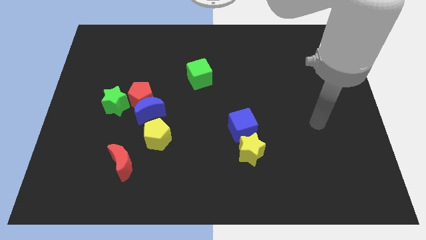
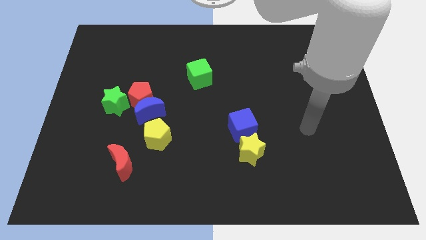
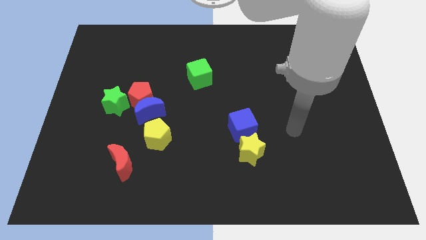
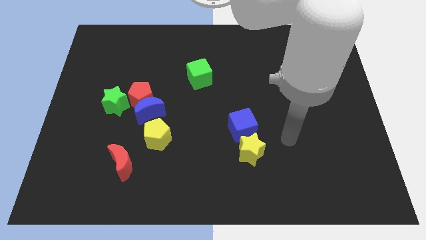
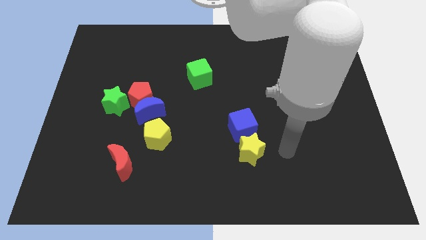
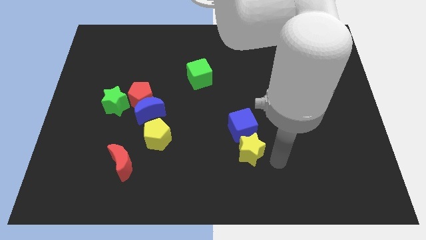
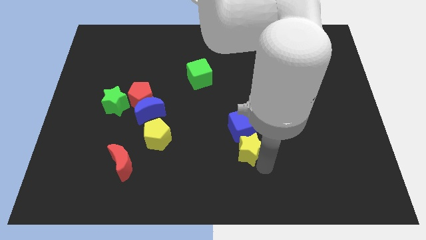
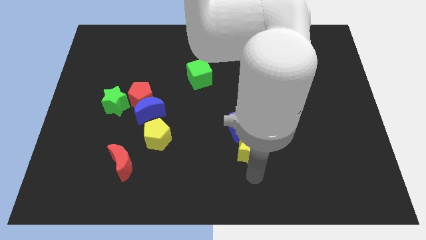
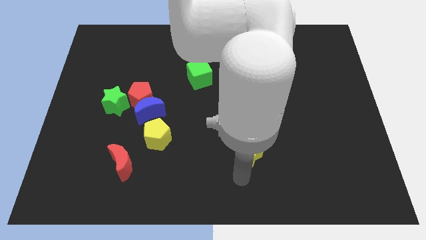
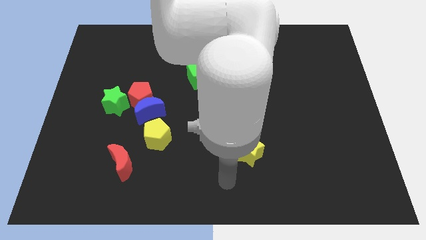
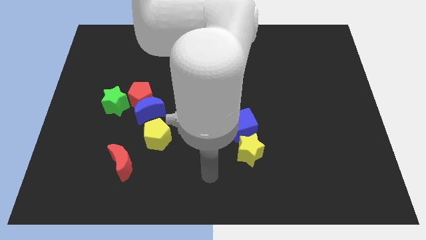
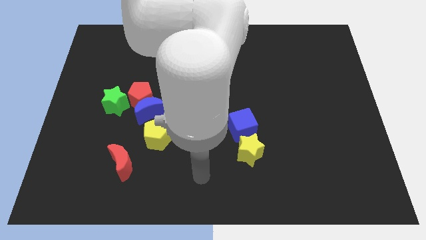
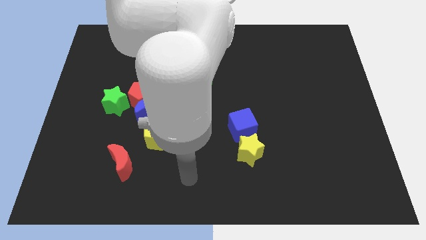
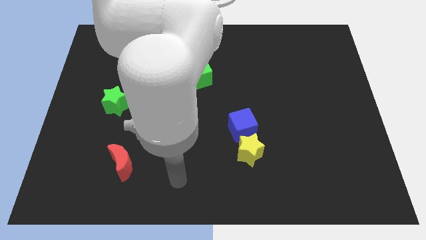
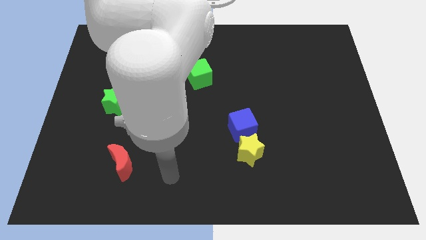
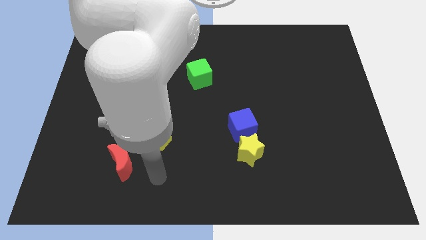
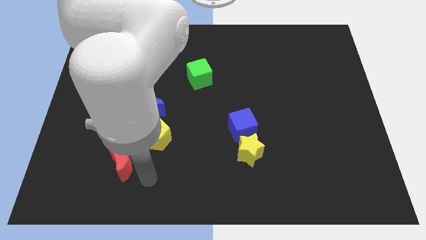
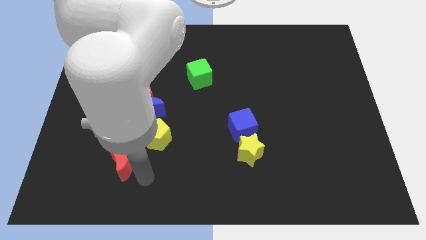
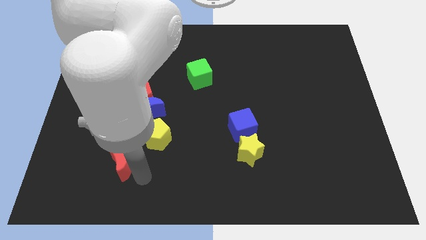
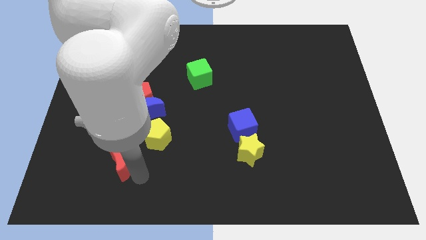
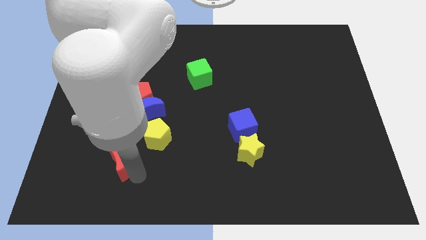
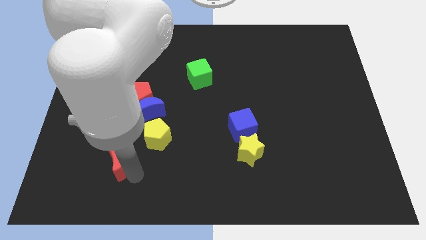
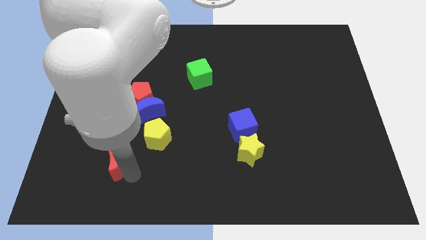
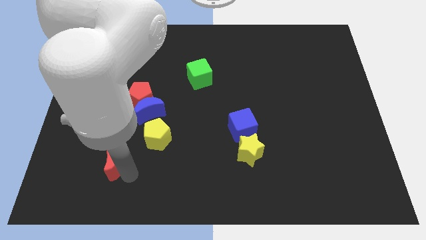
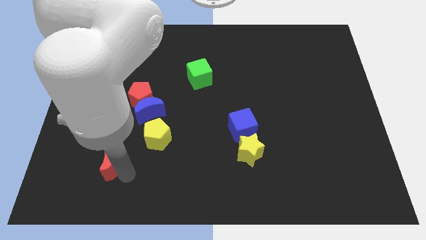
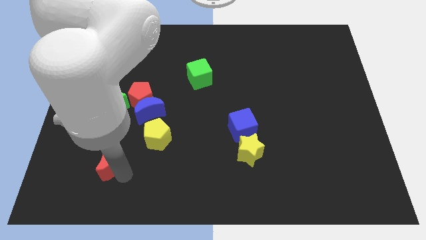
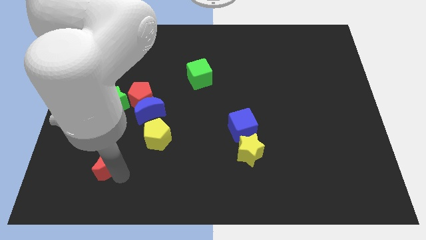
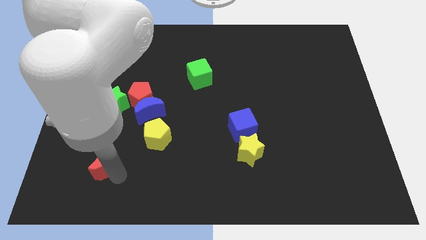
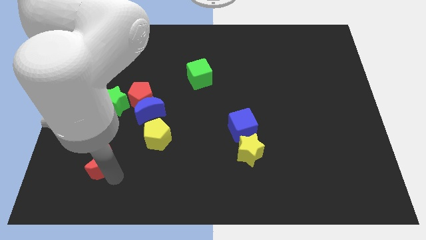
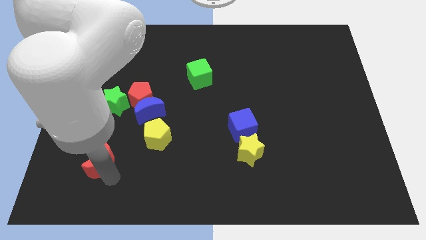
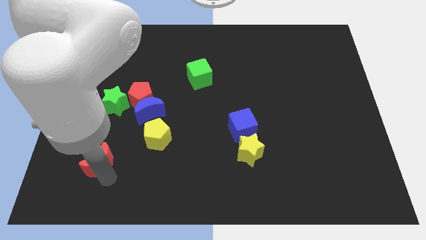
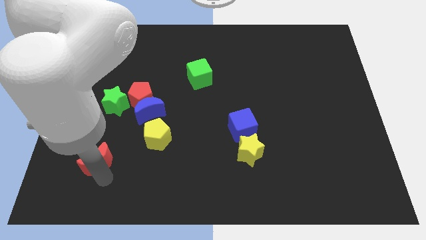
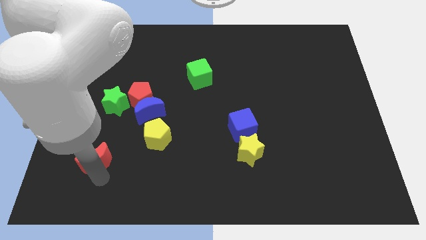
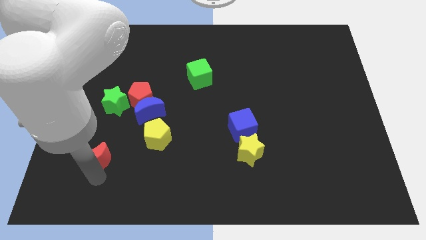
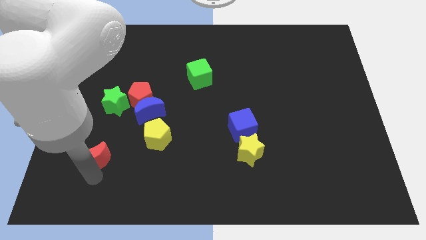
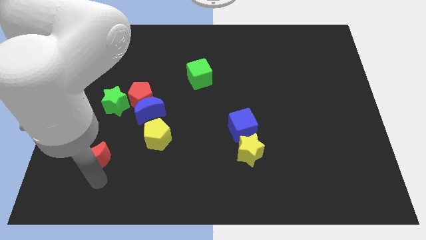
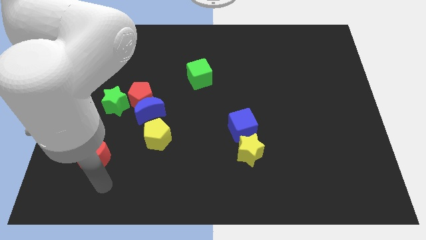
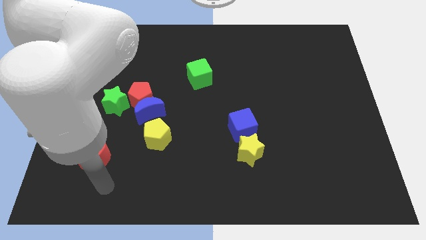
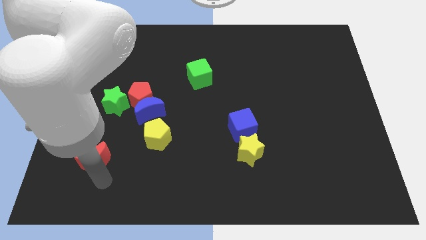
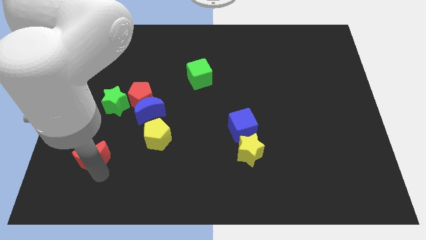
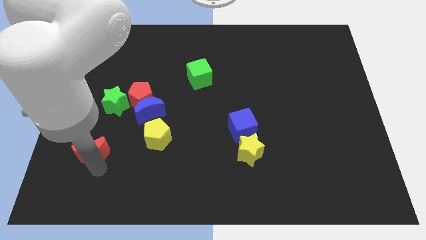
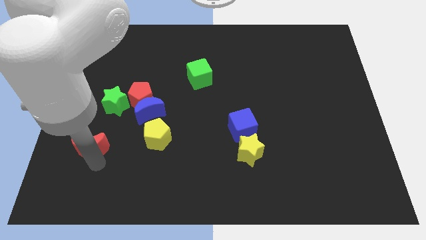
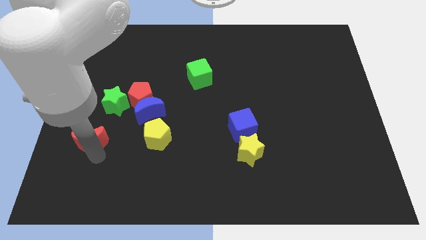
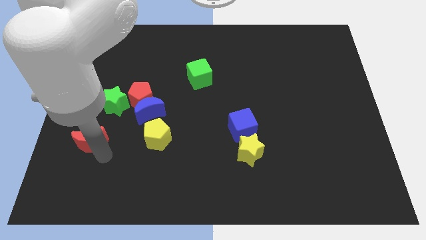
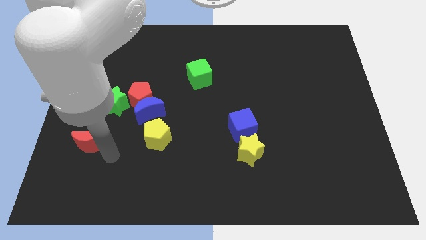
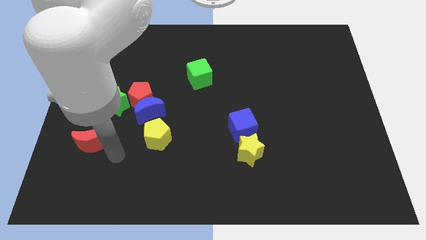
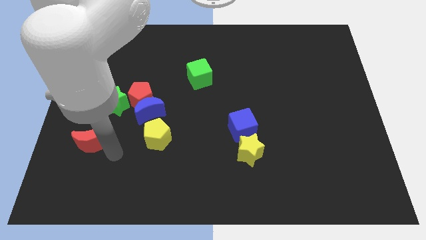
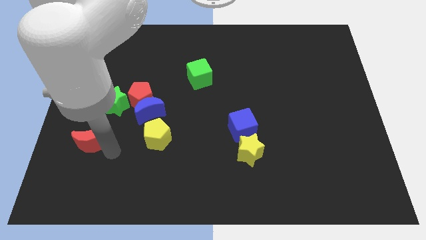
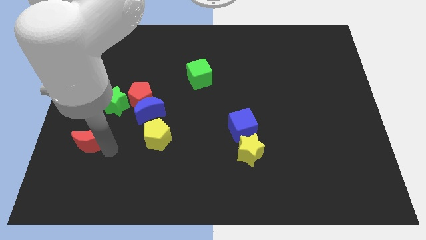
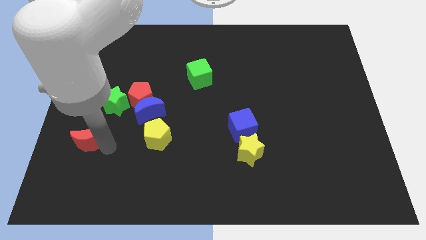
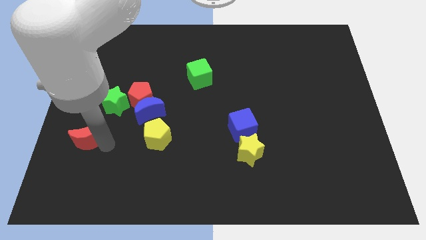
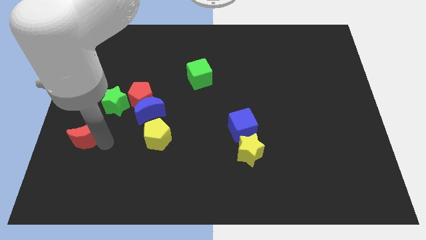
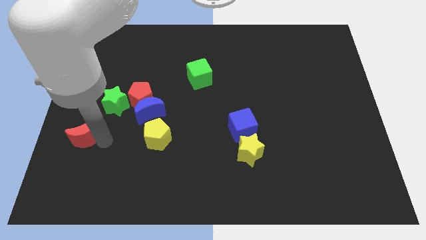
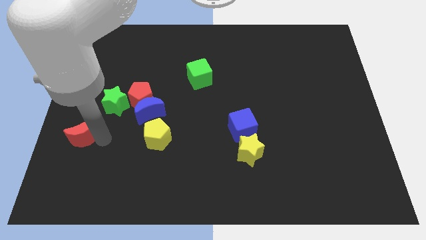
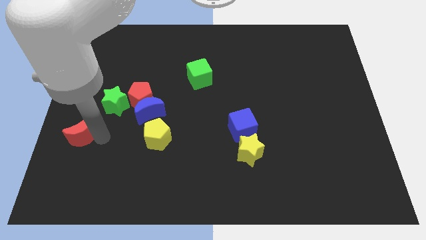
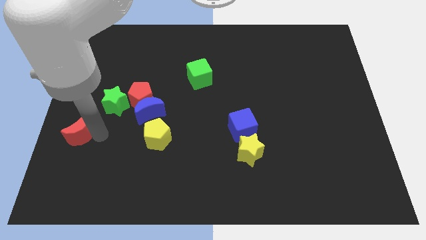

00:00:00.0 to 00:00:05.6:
put the red moon to the center left
